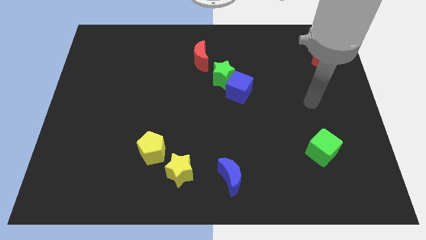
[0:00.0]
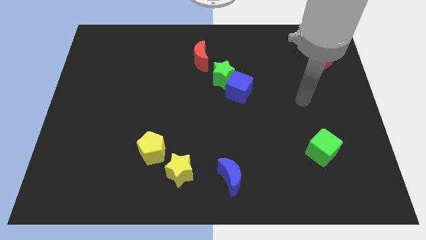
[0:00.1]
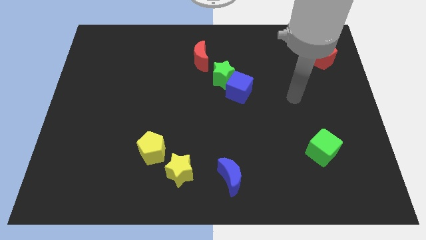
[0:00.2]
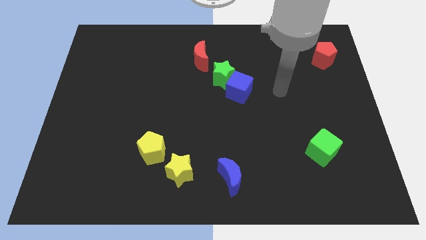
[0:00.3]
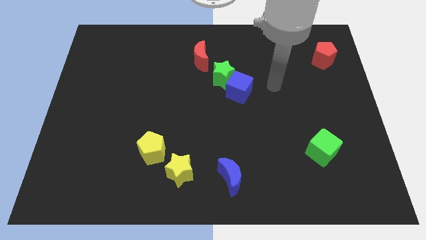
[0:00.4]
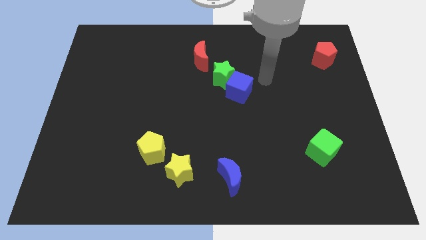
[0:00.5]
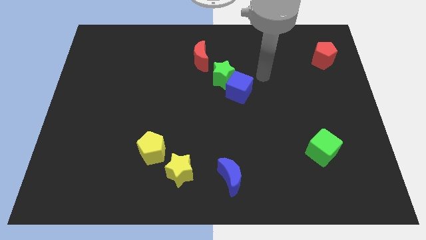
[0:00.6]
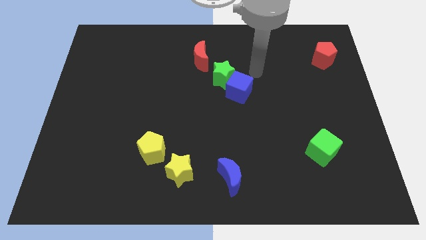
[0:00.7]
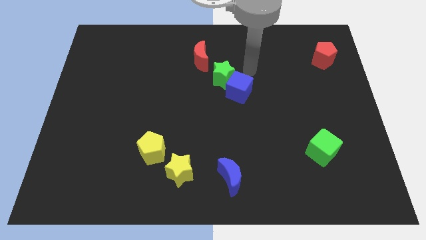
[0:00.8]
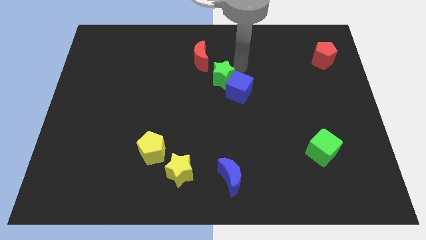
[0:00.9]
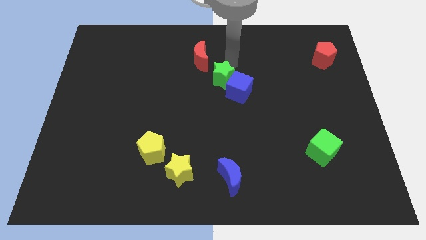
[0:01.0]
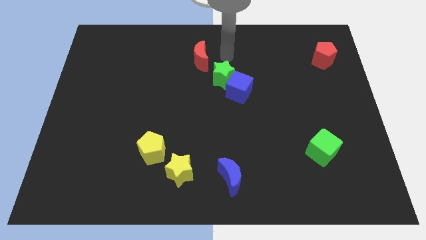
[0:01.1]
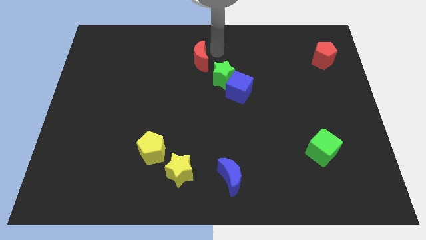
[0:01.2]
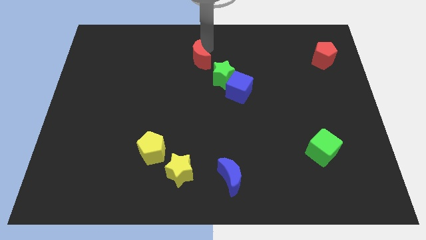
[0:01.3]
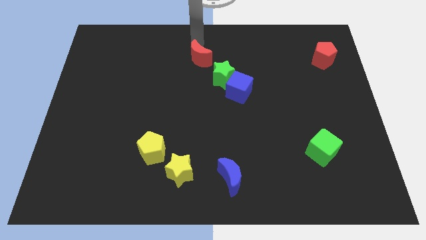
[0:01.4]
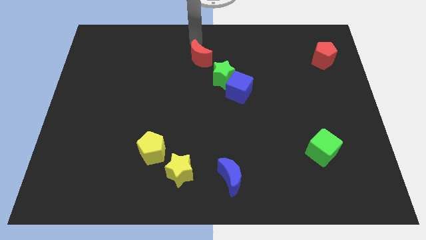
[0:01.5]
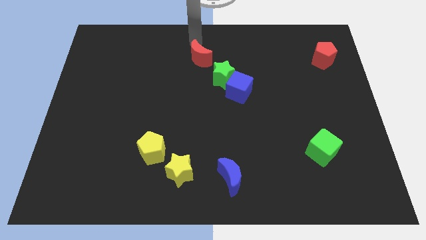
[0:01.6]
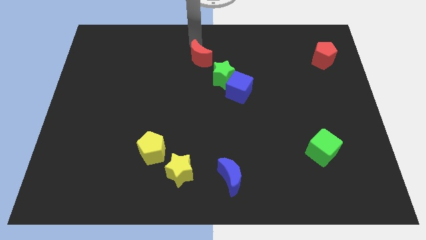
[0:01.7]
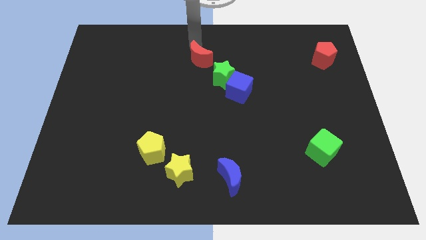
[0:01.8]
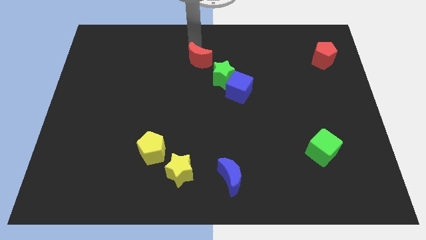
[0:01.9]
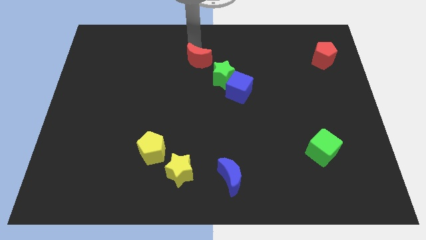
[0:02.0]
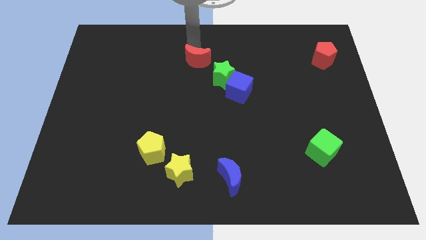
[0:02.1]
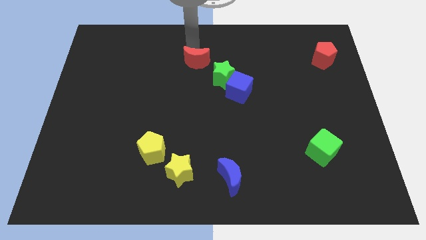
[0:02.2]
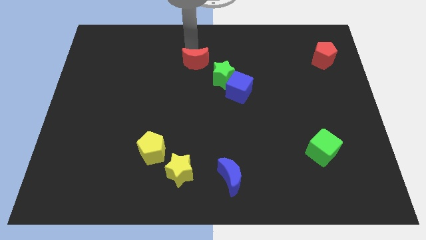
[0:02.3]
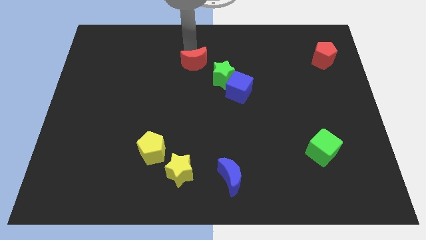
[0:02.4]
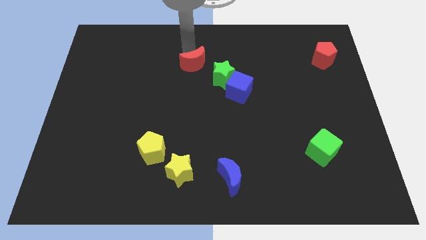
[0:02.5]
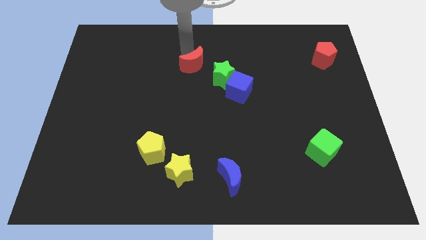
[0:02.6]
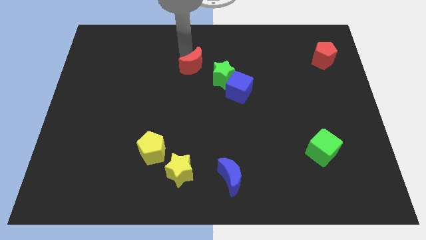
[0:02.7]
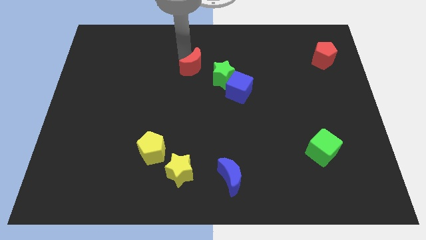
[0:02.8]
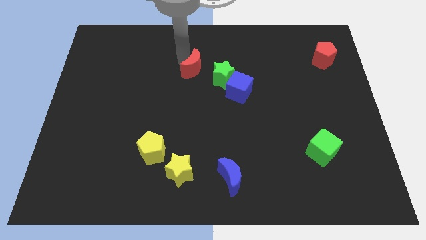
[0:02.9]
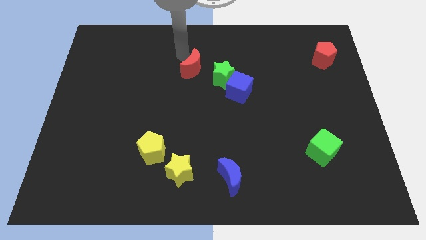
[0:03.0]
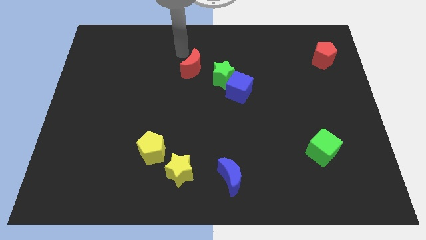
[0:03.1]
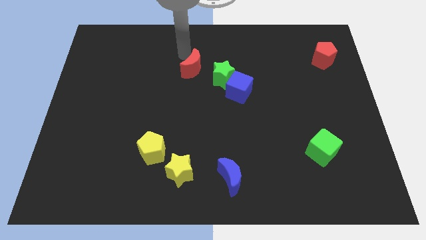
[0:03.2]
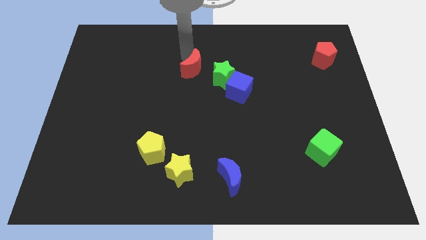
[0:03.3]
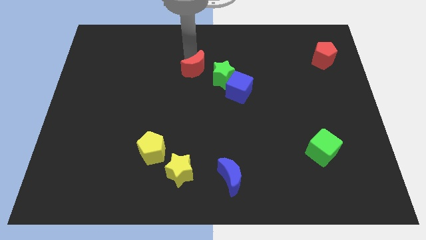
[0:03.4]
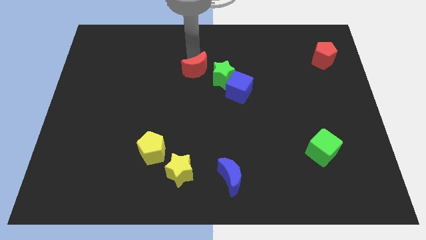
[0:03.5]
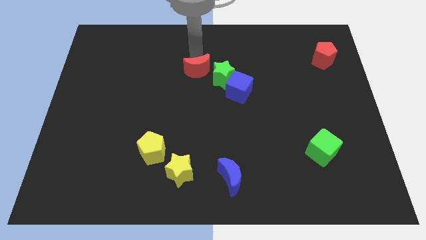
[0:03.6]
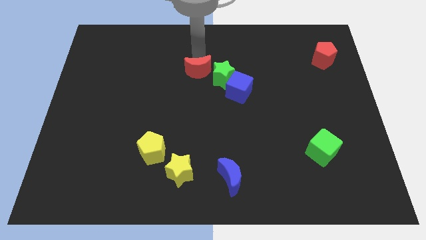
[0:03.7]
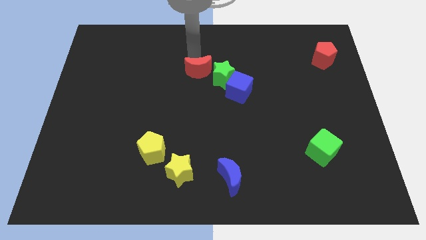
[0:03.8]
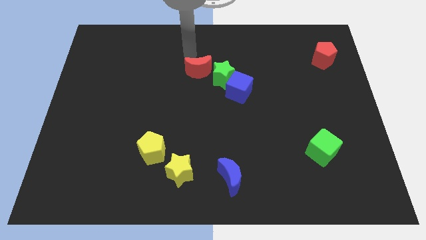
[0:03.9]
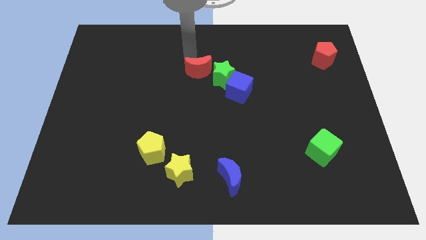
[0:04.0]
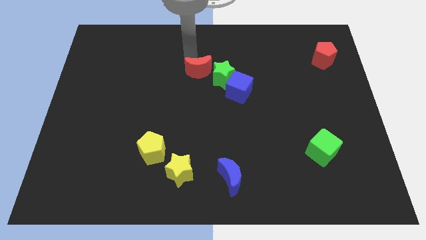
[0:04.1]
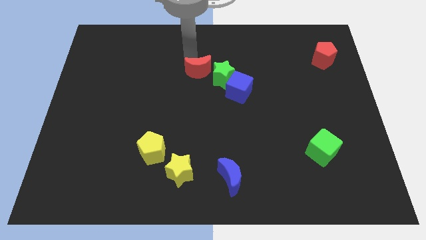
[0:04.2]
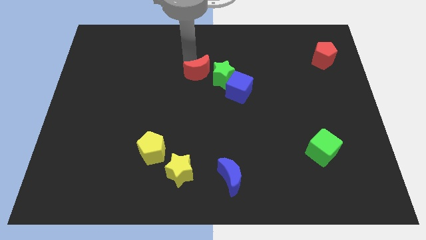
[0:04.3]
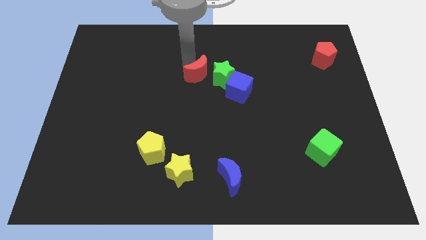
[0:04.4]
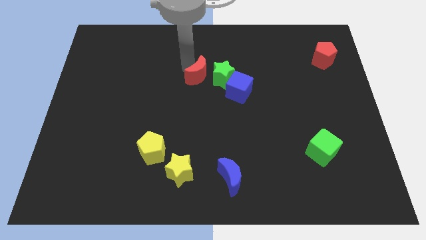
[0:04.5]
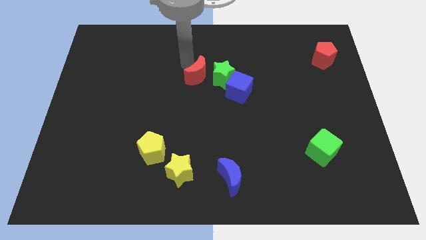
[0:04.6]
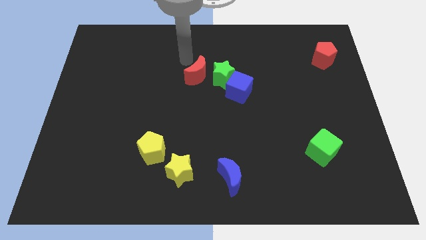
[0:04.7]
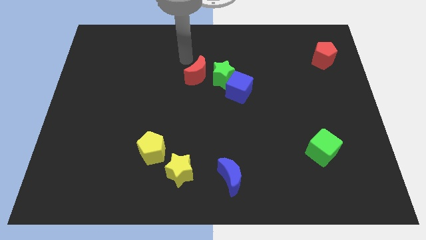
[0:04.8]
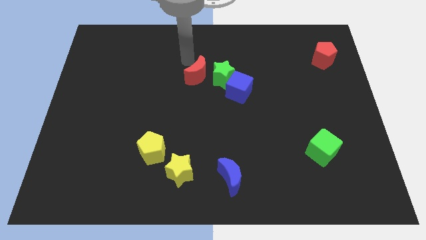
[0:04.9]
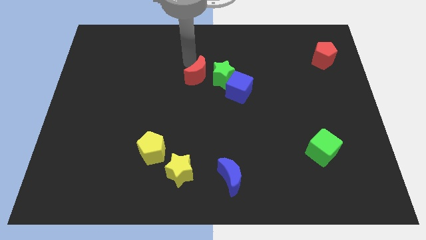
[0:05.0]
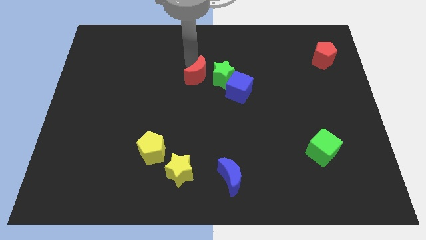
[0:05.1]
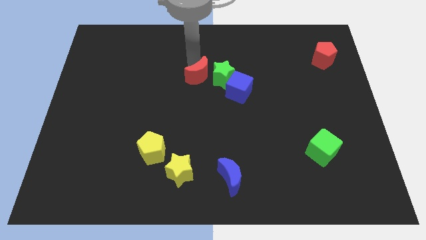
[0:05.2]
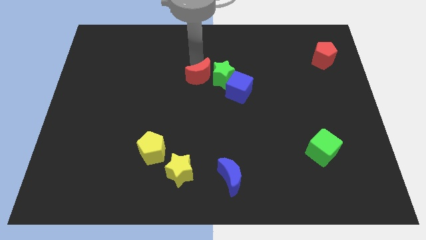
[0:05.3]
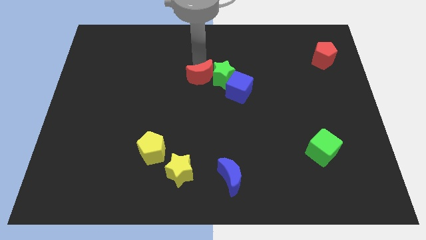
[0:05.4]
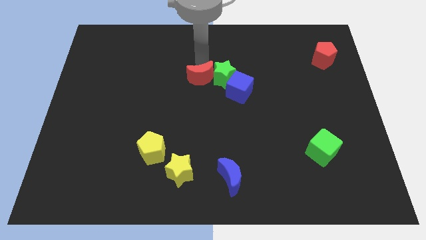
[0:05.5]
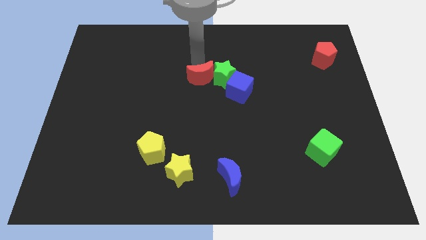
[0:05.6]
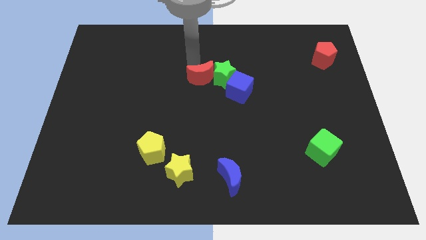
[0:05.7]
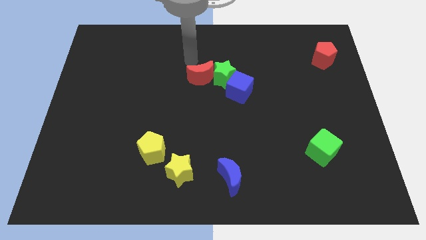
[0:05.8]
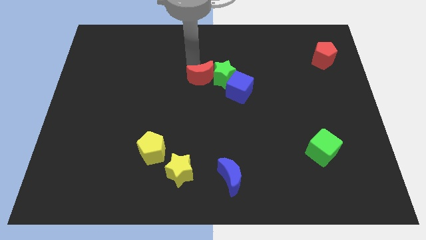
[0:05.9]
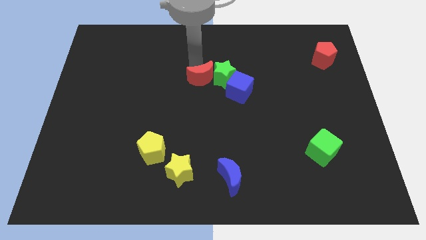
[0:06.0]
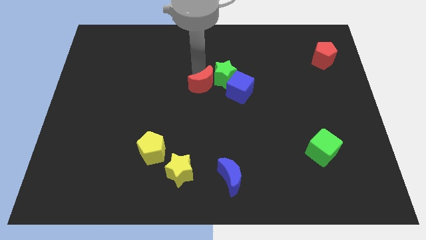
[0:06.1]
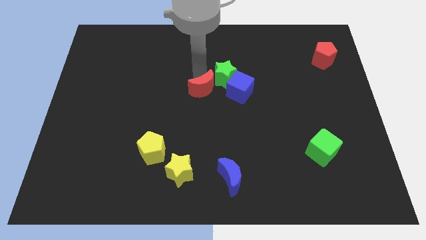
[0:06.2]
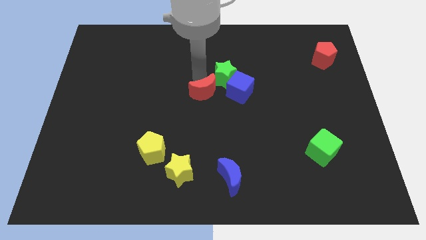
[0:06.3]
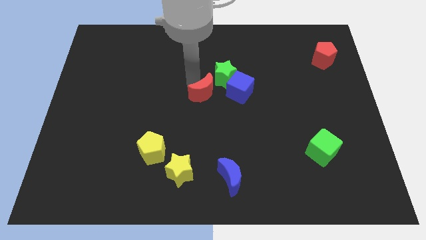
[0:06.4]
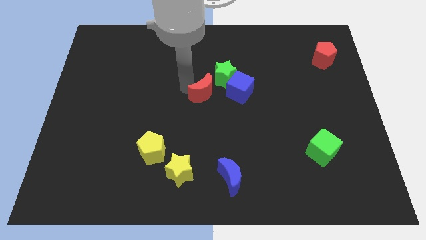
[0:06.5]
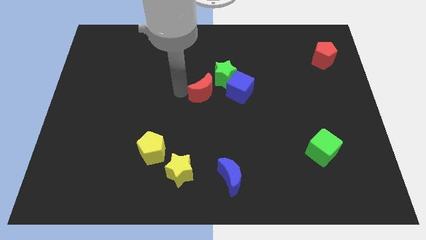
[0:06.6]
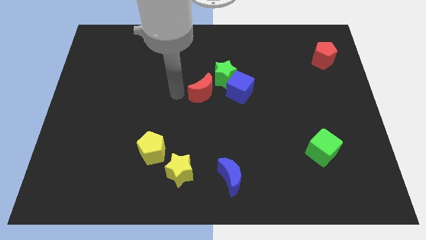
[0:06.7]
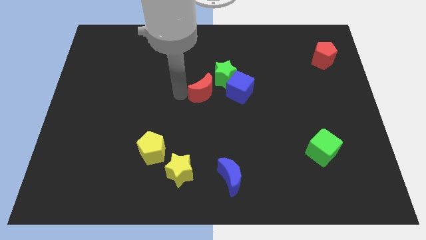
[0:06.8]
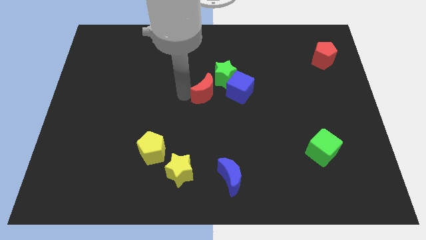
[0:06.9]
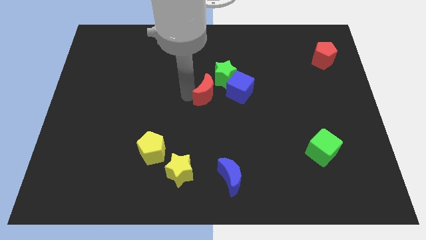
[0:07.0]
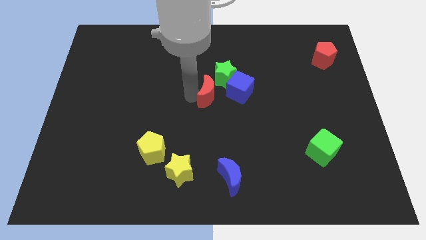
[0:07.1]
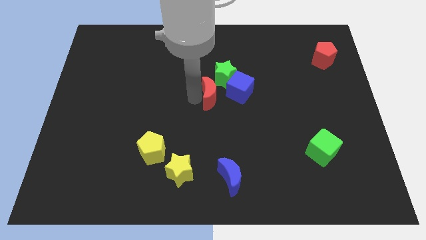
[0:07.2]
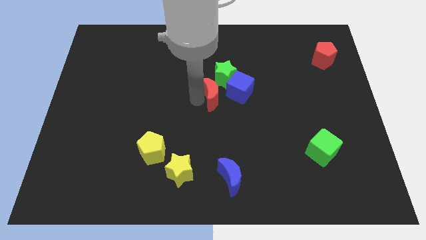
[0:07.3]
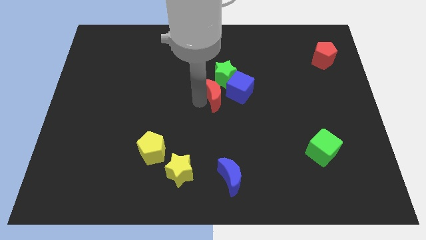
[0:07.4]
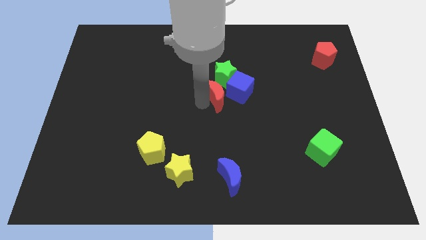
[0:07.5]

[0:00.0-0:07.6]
move the red moon towards the blue cube
